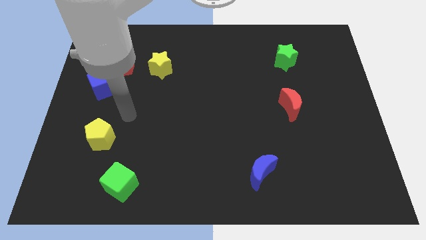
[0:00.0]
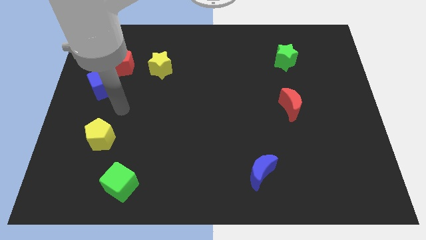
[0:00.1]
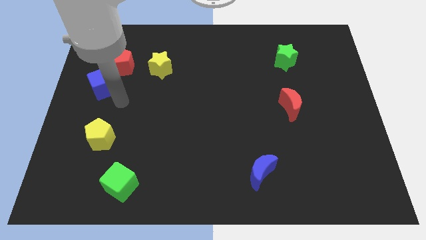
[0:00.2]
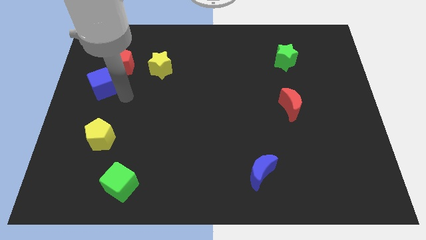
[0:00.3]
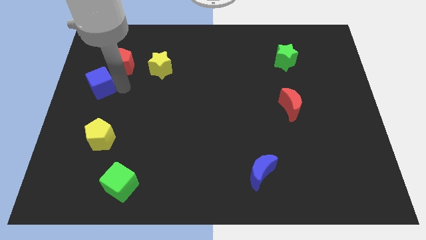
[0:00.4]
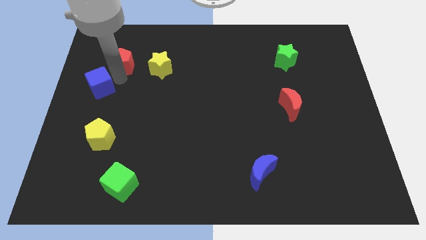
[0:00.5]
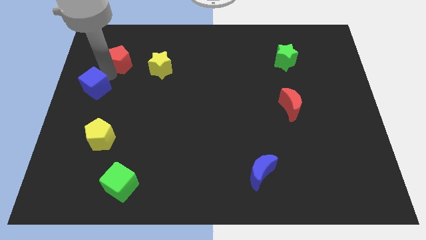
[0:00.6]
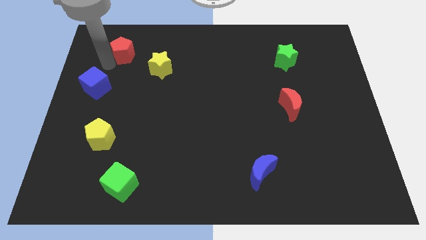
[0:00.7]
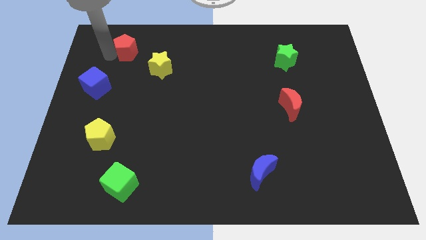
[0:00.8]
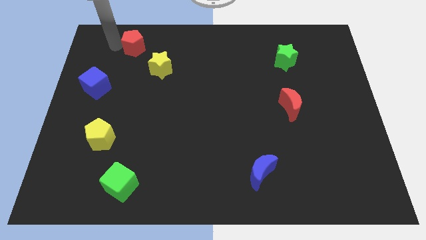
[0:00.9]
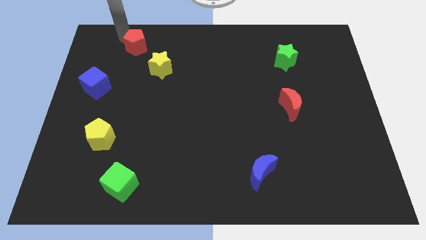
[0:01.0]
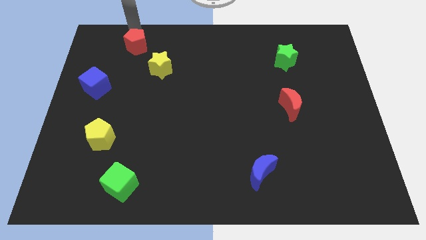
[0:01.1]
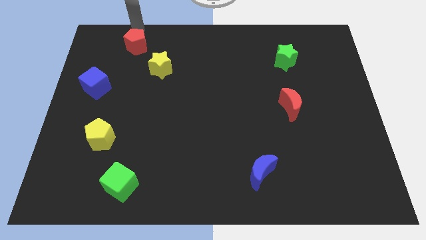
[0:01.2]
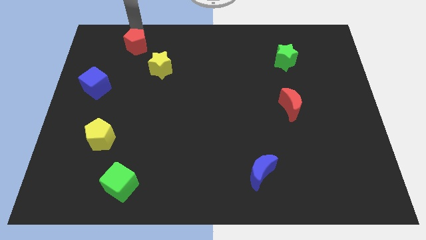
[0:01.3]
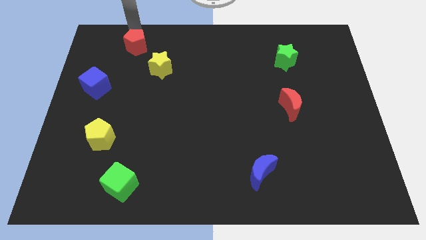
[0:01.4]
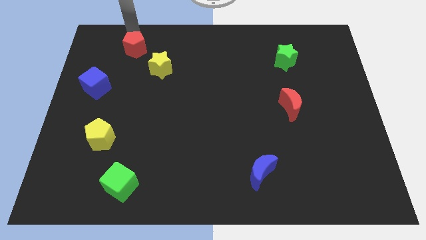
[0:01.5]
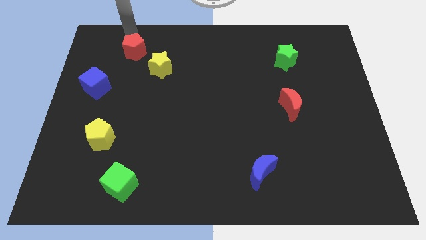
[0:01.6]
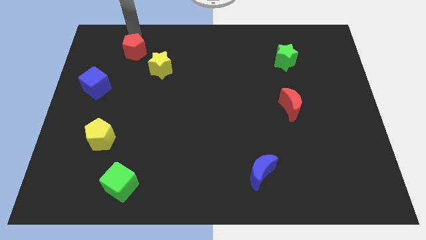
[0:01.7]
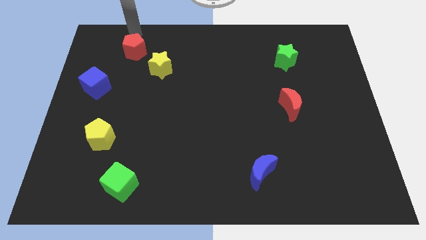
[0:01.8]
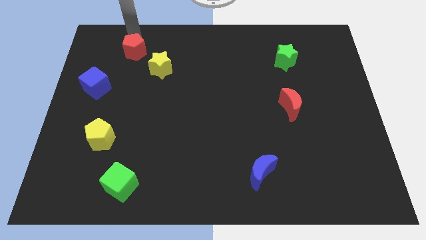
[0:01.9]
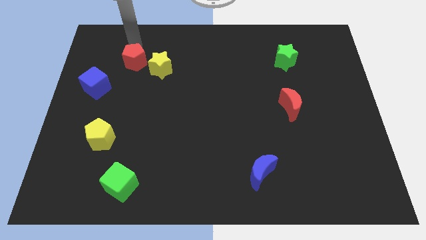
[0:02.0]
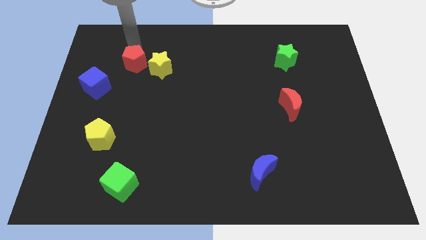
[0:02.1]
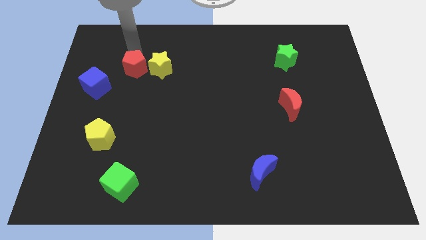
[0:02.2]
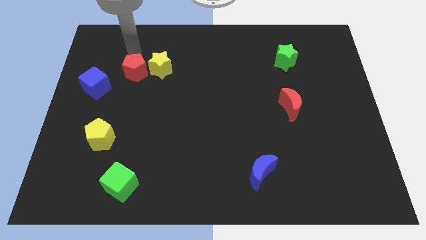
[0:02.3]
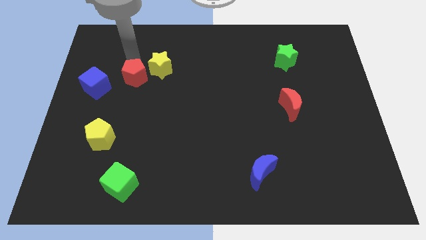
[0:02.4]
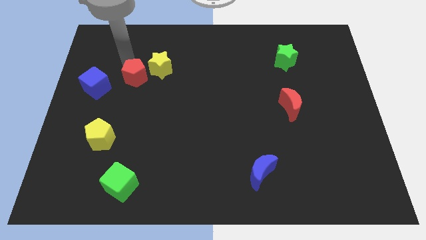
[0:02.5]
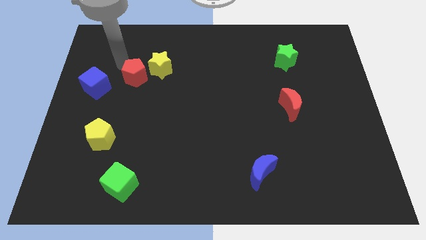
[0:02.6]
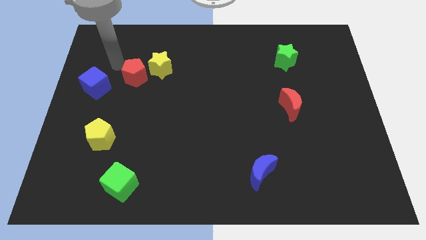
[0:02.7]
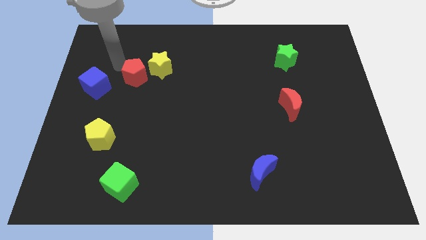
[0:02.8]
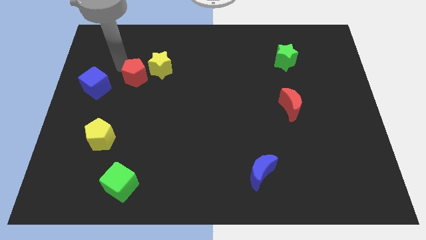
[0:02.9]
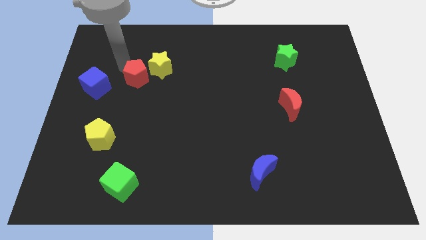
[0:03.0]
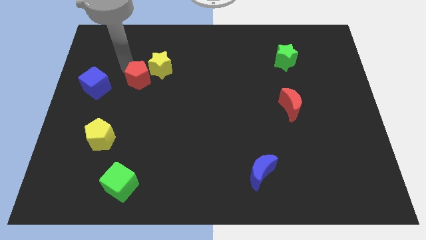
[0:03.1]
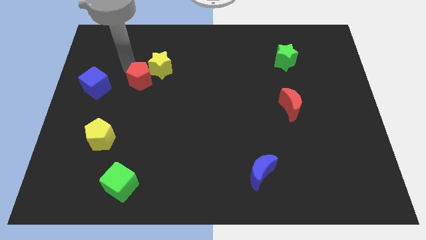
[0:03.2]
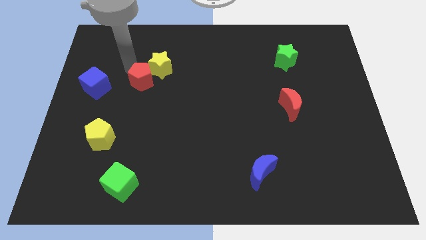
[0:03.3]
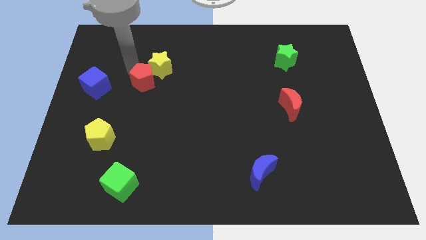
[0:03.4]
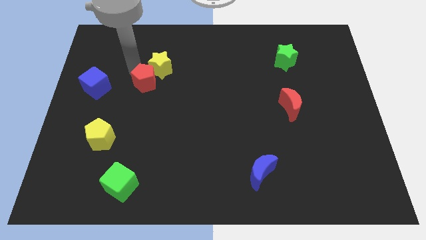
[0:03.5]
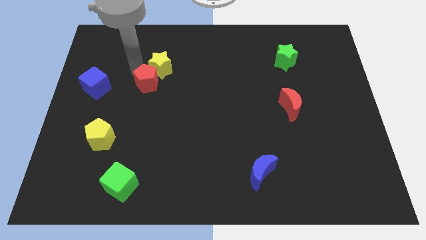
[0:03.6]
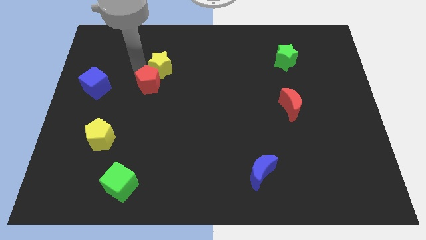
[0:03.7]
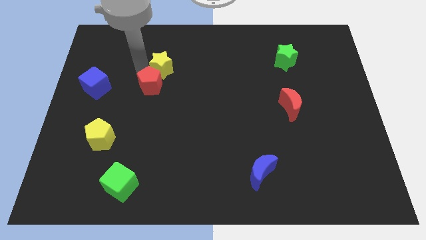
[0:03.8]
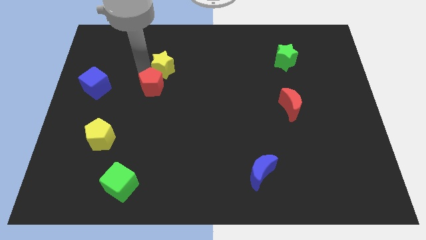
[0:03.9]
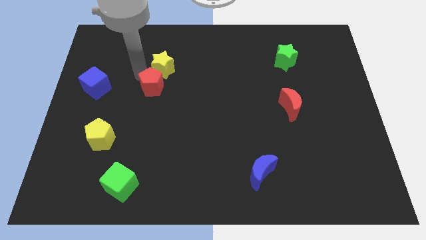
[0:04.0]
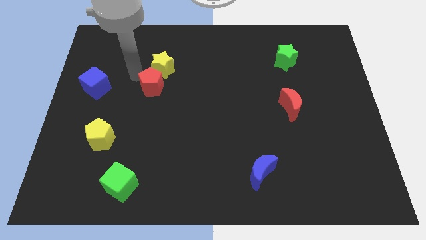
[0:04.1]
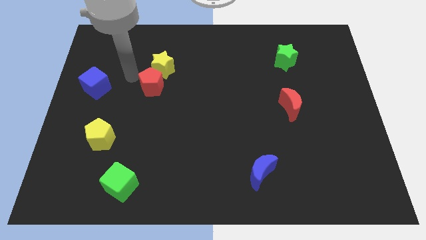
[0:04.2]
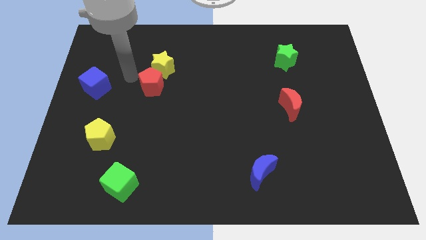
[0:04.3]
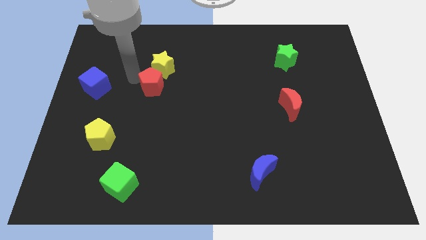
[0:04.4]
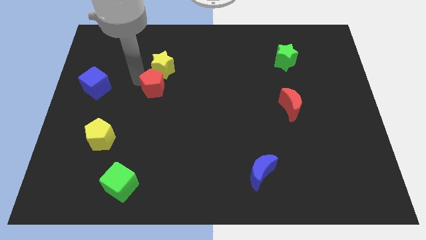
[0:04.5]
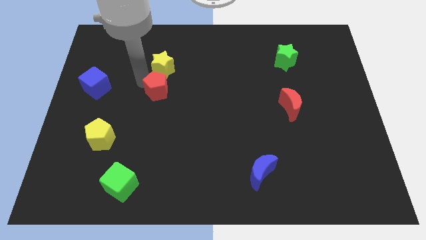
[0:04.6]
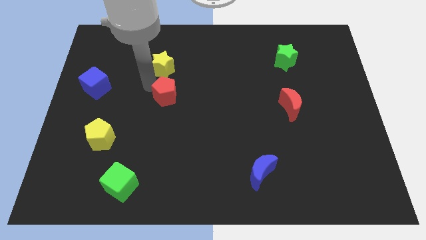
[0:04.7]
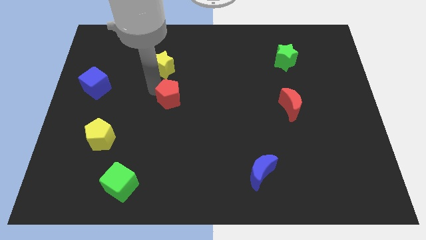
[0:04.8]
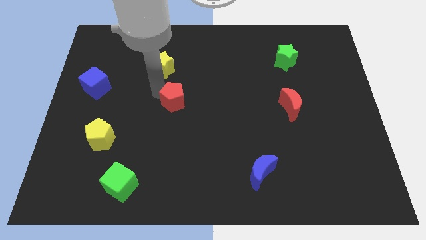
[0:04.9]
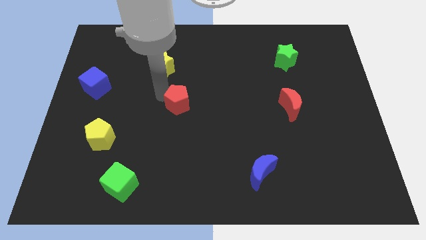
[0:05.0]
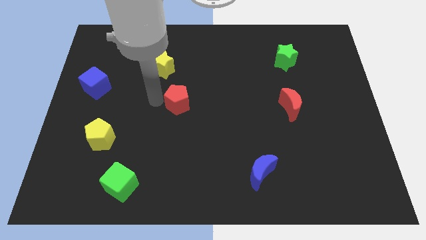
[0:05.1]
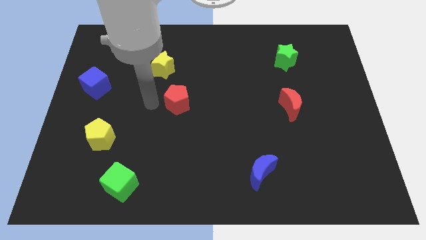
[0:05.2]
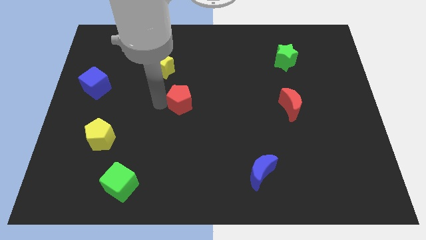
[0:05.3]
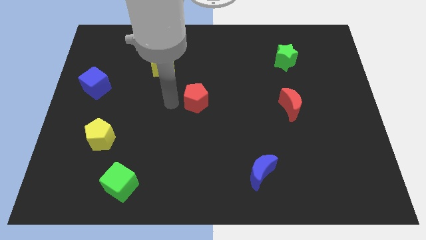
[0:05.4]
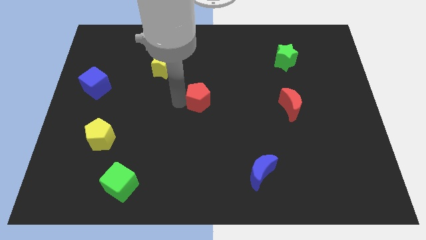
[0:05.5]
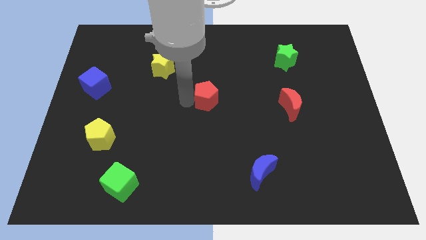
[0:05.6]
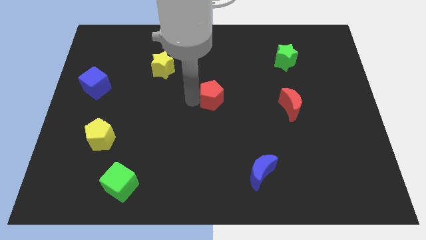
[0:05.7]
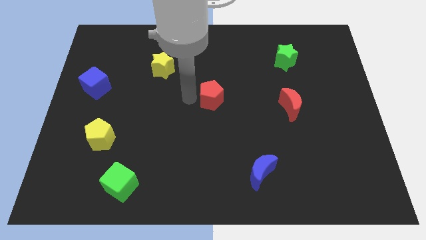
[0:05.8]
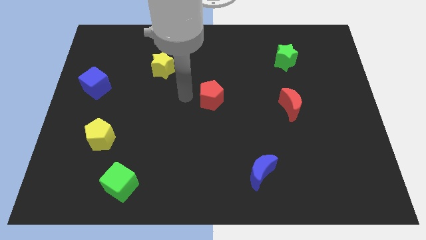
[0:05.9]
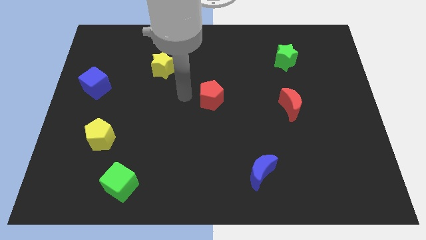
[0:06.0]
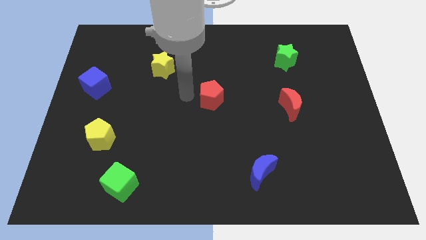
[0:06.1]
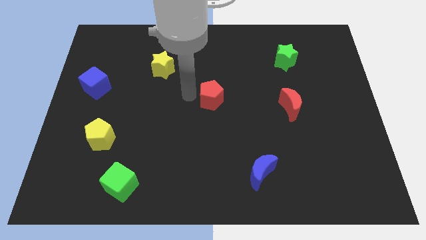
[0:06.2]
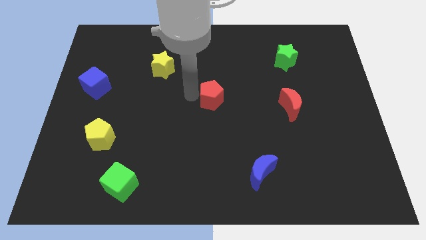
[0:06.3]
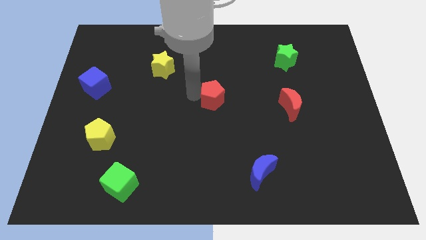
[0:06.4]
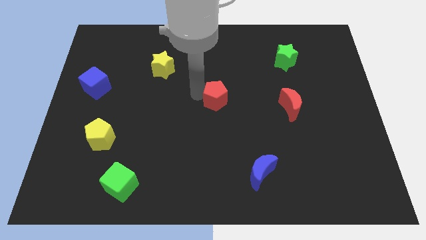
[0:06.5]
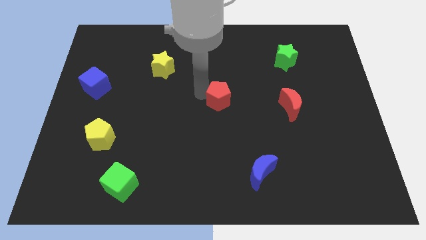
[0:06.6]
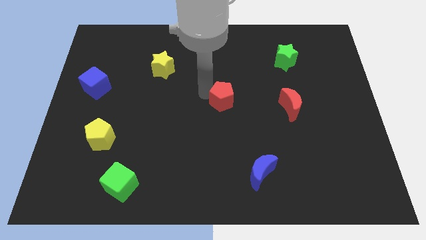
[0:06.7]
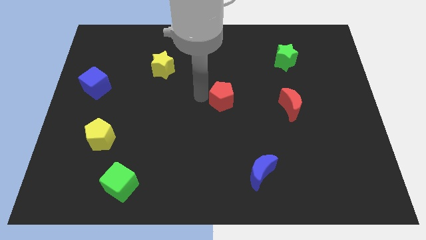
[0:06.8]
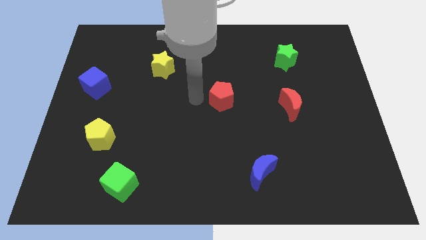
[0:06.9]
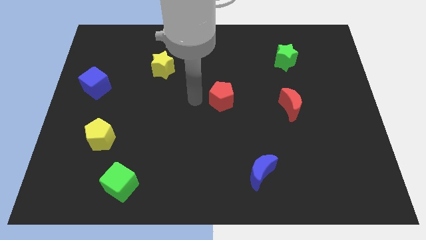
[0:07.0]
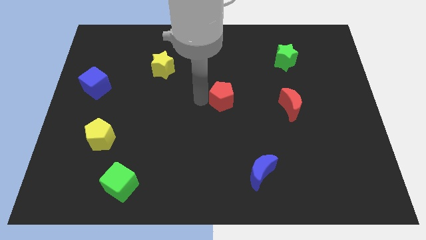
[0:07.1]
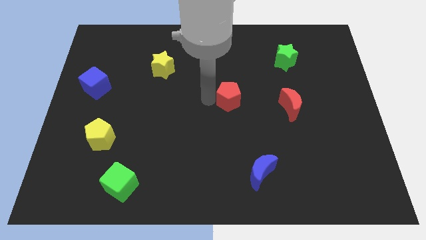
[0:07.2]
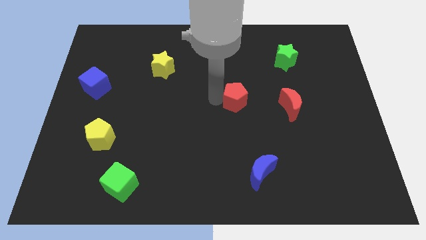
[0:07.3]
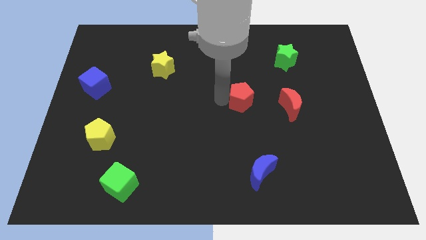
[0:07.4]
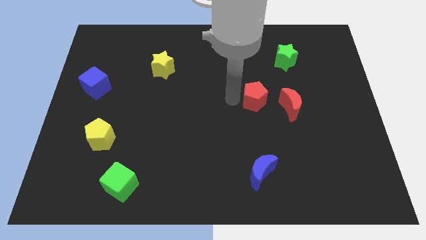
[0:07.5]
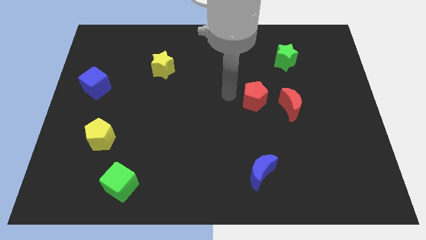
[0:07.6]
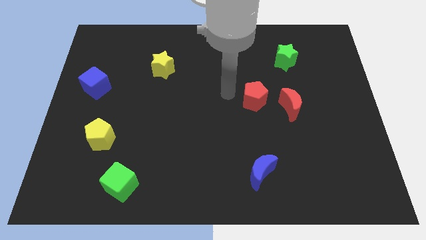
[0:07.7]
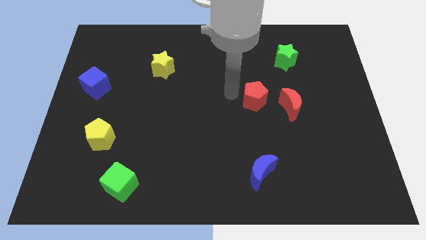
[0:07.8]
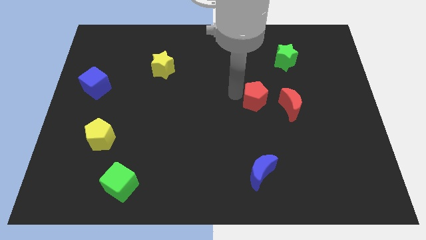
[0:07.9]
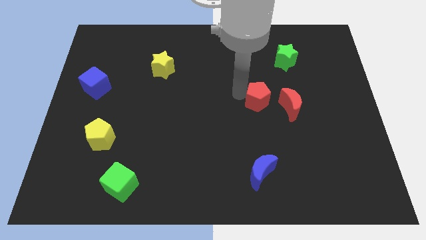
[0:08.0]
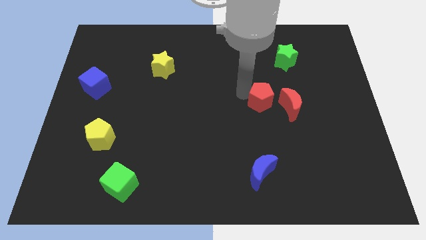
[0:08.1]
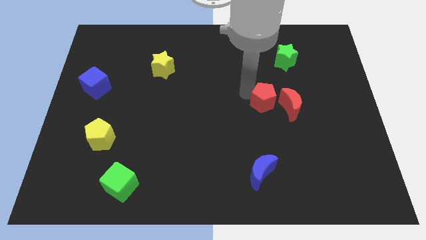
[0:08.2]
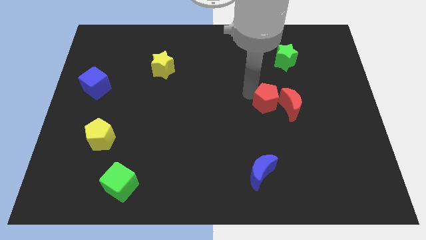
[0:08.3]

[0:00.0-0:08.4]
put the red pentagon close to the red moon
